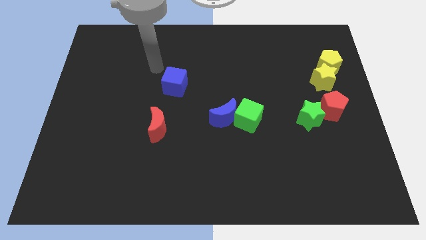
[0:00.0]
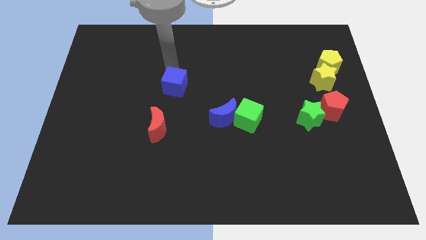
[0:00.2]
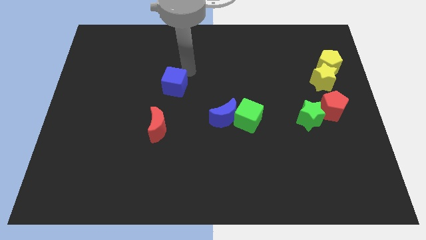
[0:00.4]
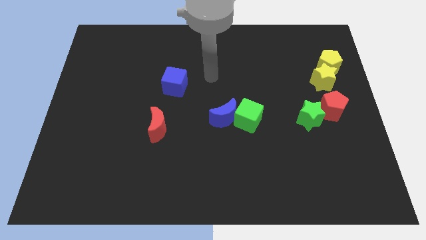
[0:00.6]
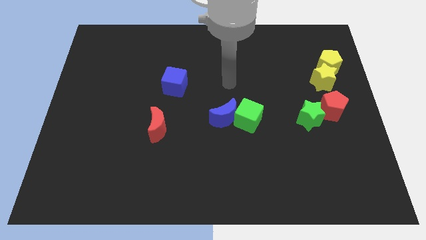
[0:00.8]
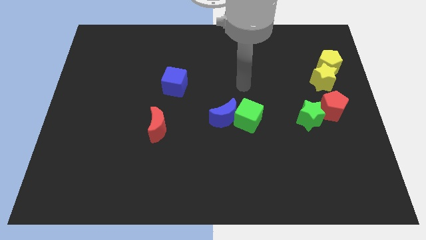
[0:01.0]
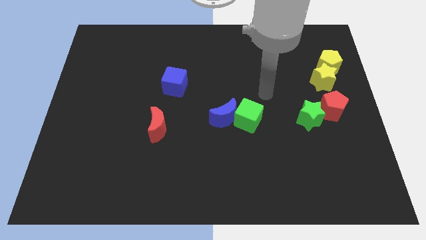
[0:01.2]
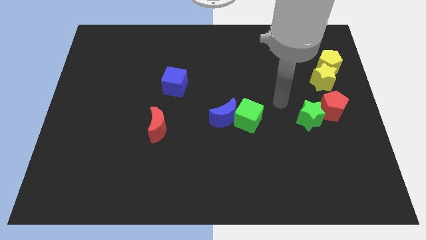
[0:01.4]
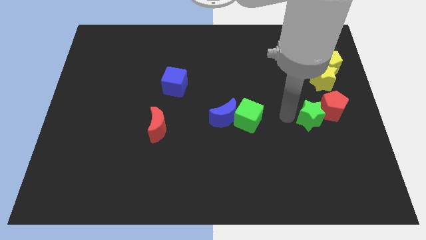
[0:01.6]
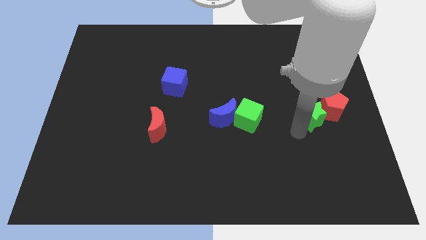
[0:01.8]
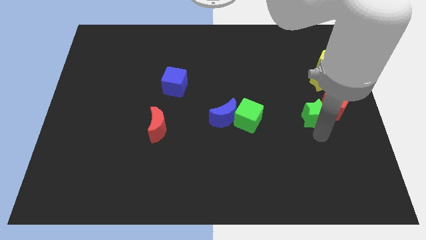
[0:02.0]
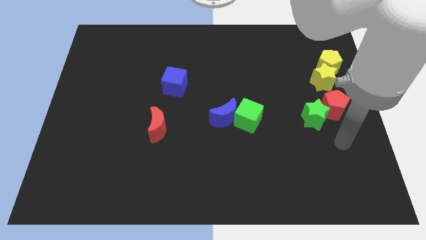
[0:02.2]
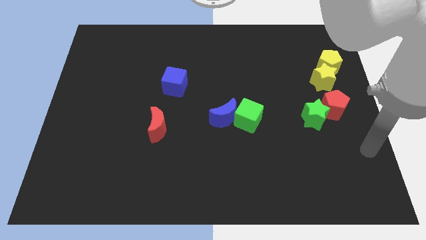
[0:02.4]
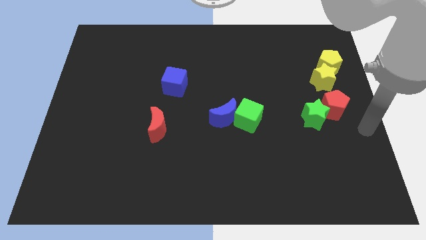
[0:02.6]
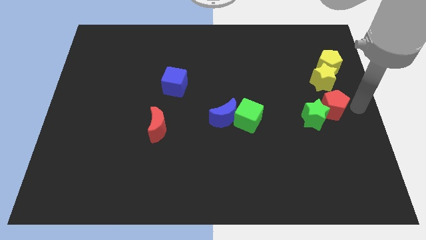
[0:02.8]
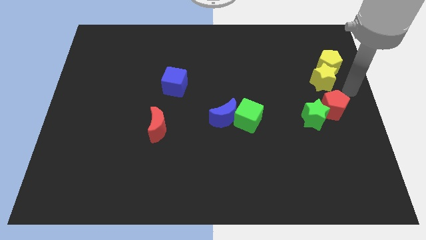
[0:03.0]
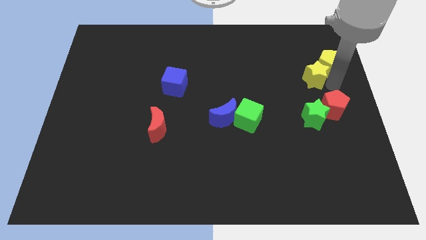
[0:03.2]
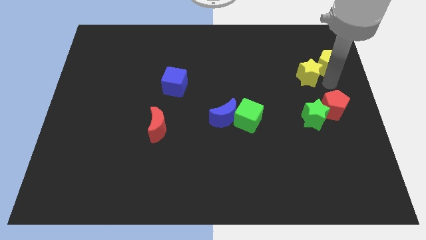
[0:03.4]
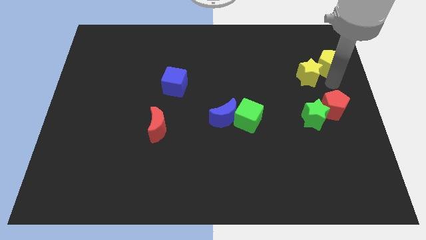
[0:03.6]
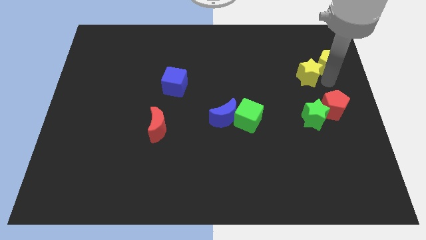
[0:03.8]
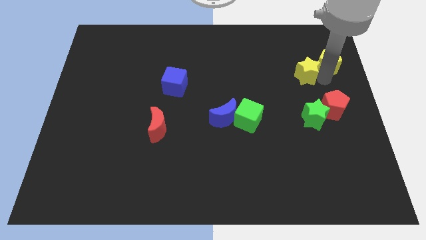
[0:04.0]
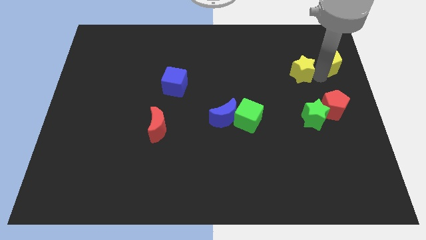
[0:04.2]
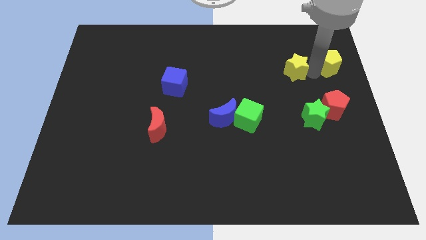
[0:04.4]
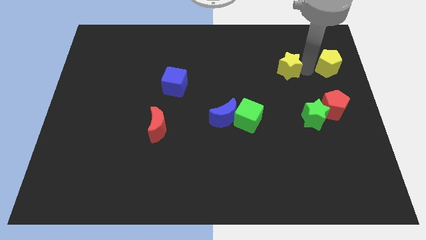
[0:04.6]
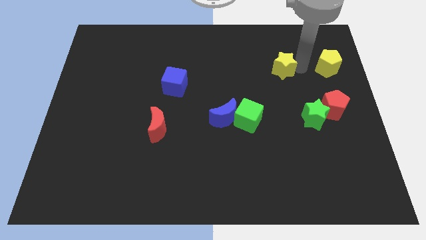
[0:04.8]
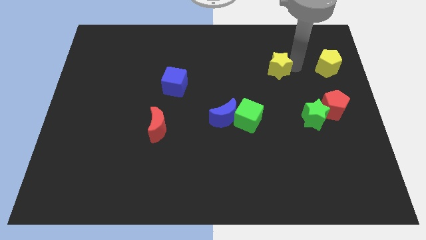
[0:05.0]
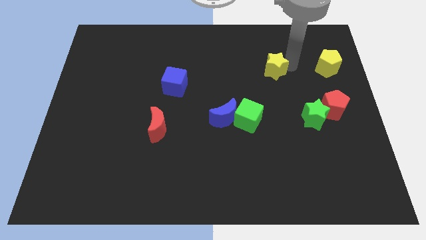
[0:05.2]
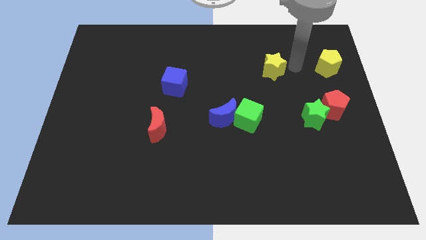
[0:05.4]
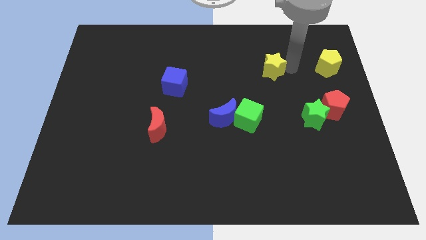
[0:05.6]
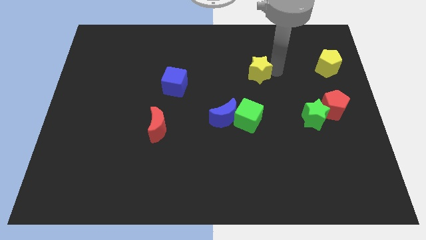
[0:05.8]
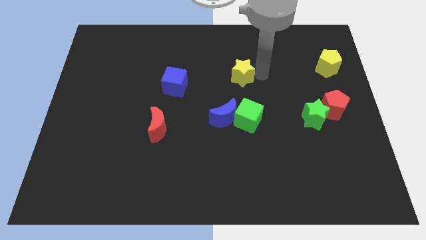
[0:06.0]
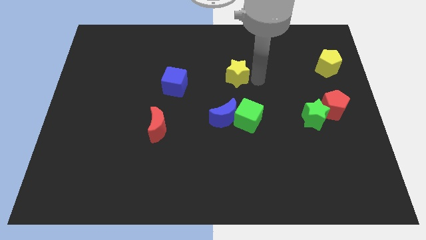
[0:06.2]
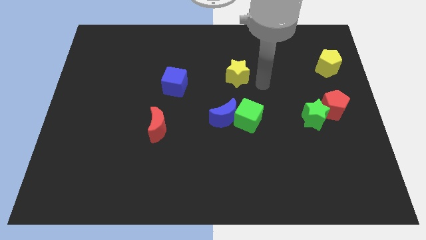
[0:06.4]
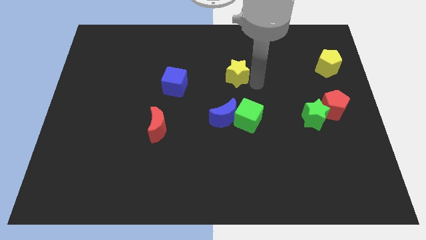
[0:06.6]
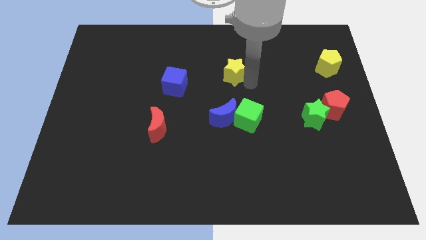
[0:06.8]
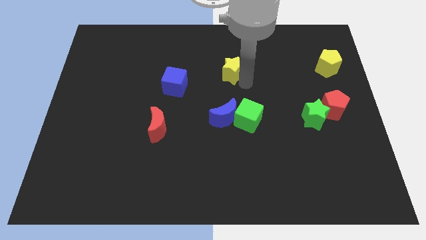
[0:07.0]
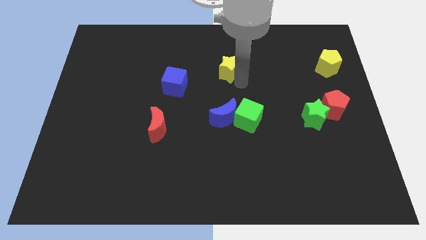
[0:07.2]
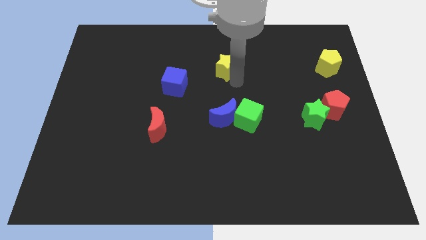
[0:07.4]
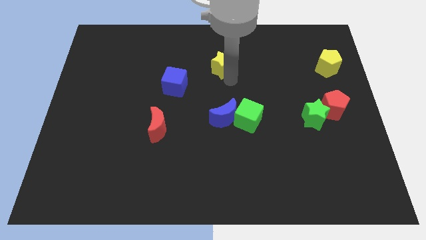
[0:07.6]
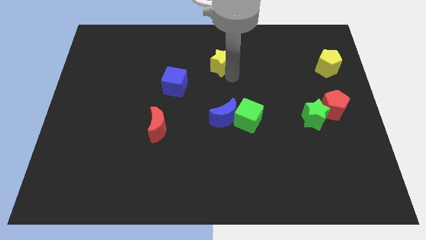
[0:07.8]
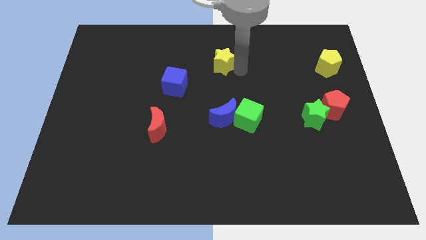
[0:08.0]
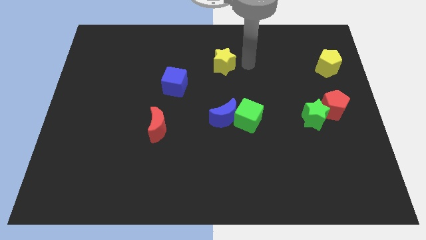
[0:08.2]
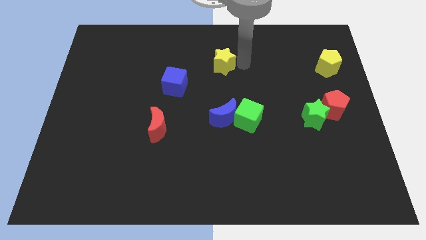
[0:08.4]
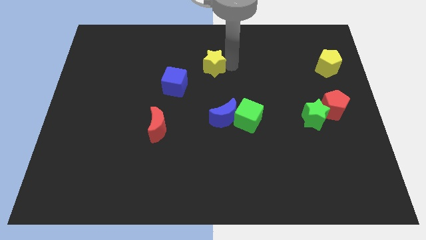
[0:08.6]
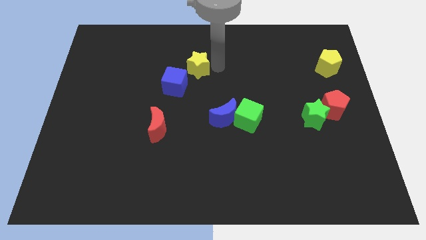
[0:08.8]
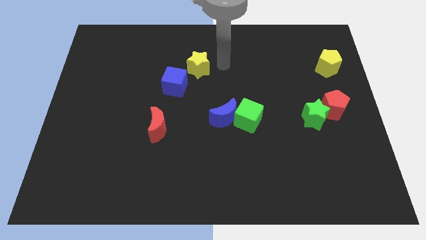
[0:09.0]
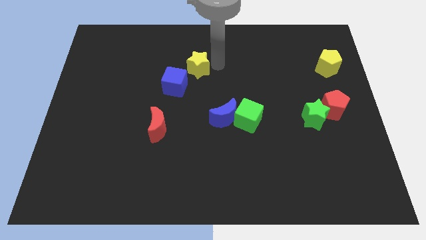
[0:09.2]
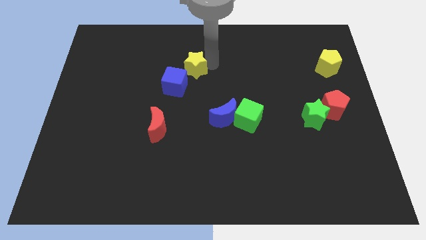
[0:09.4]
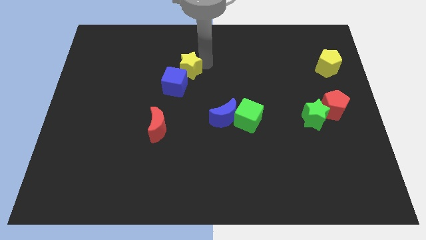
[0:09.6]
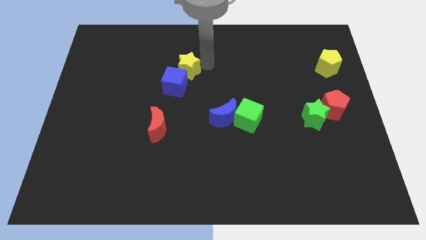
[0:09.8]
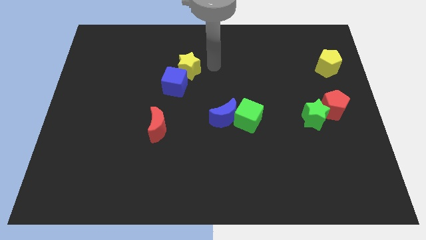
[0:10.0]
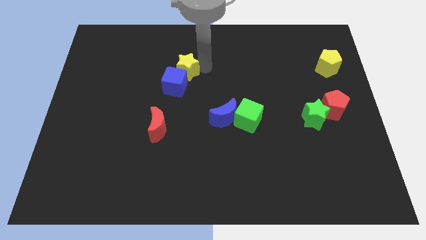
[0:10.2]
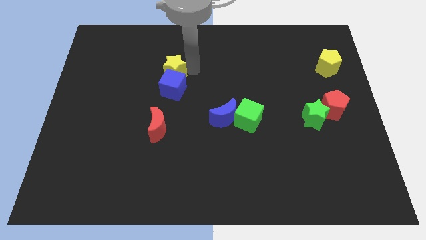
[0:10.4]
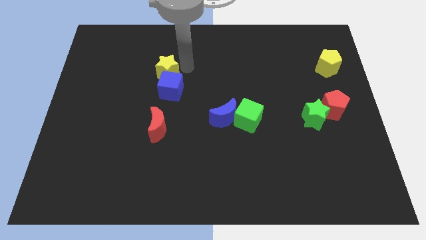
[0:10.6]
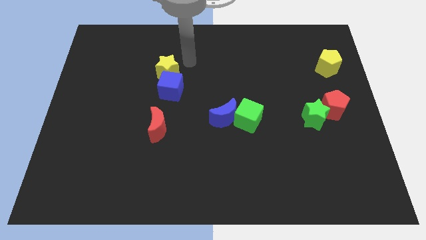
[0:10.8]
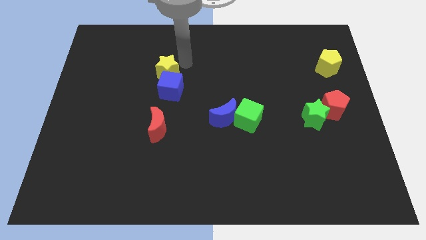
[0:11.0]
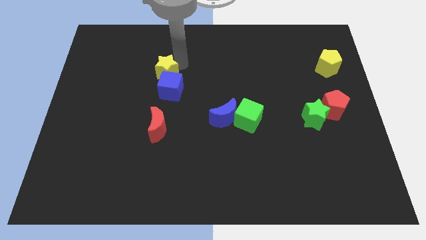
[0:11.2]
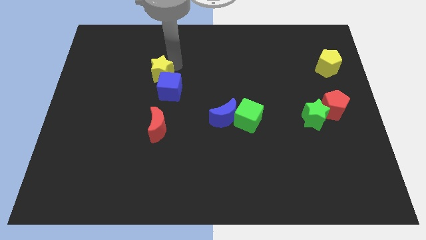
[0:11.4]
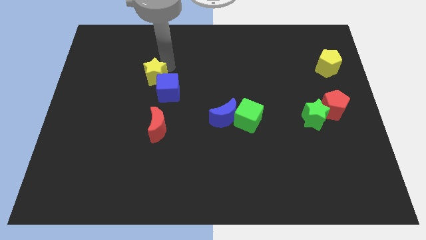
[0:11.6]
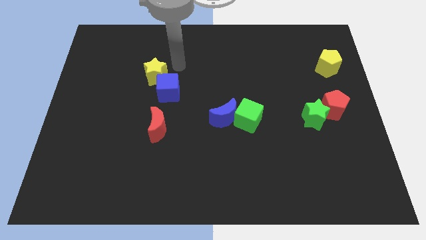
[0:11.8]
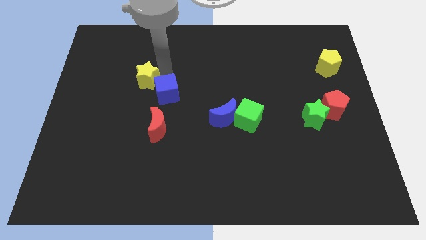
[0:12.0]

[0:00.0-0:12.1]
slide the yellow star just left of the blue cube

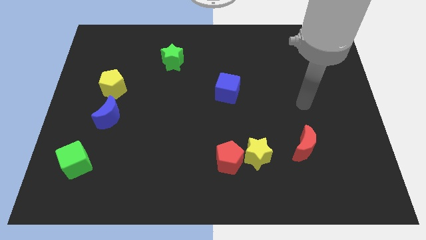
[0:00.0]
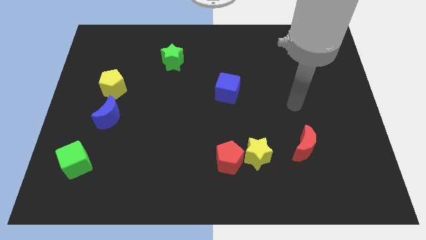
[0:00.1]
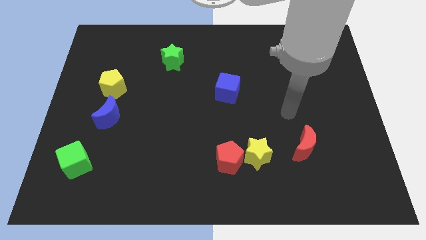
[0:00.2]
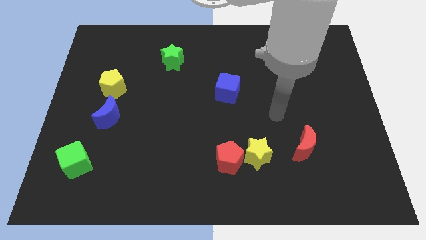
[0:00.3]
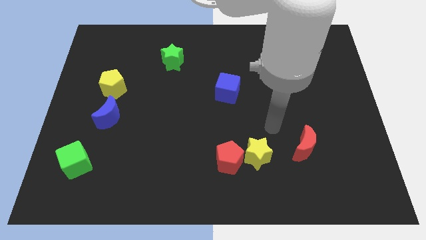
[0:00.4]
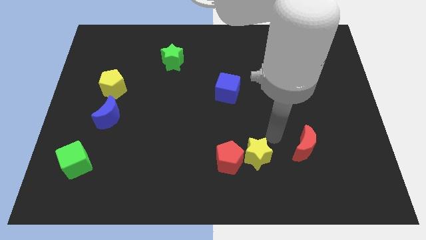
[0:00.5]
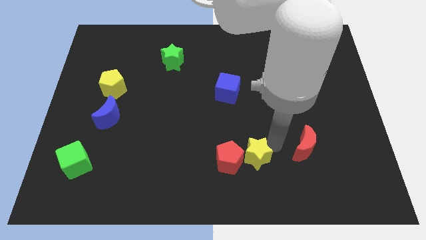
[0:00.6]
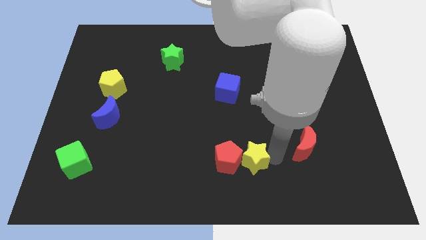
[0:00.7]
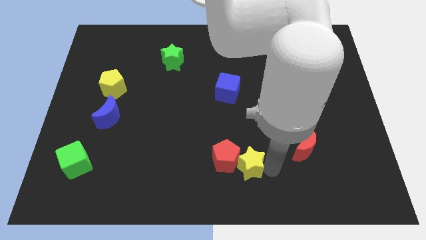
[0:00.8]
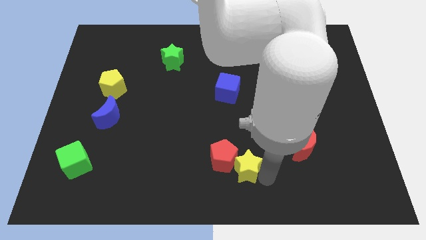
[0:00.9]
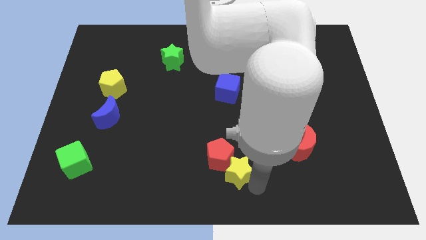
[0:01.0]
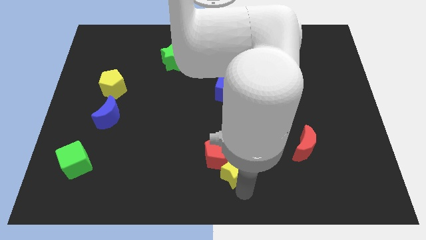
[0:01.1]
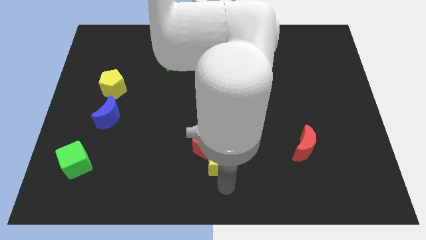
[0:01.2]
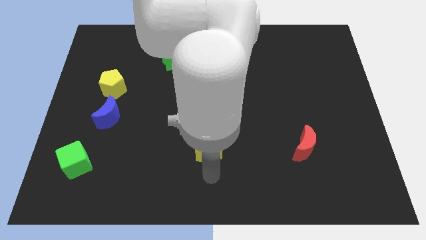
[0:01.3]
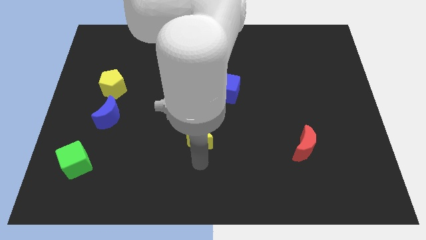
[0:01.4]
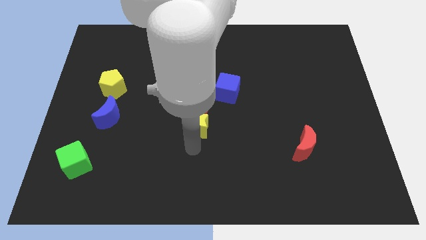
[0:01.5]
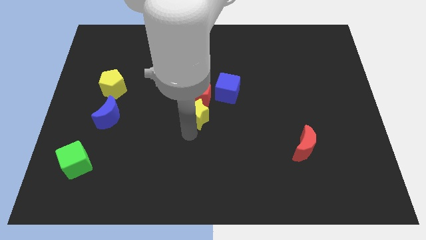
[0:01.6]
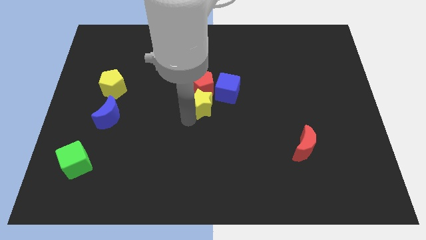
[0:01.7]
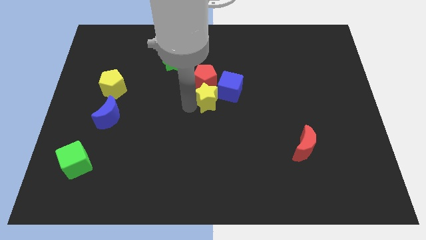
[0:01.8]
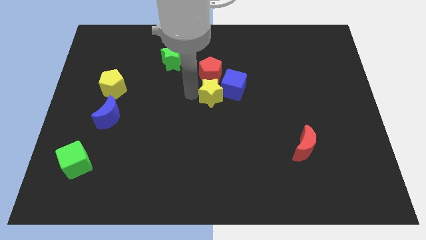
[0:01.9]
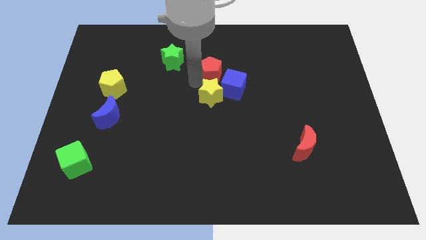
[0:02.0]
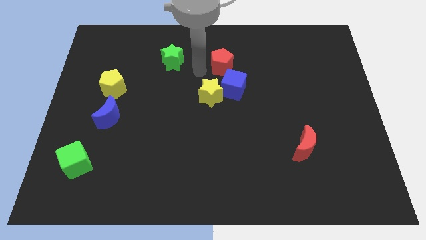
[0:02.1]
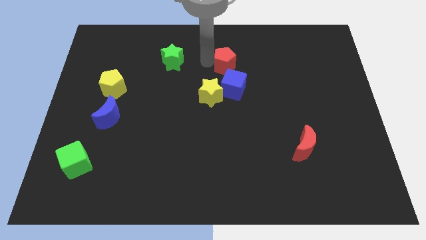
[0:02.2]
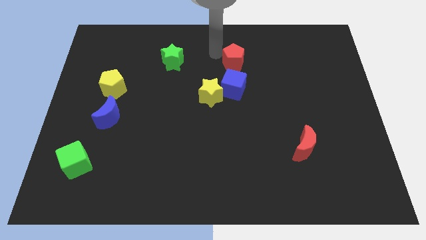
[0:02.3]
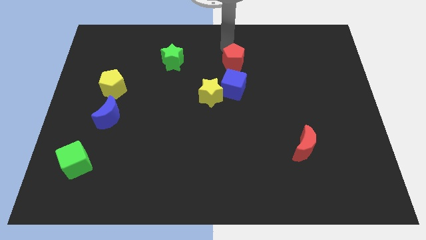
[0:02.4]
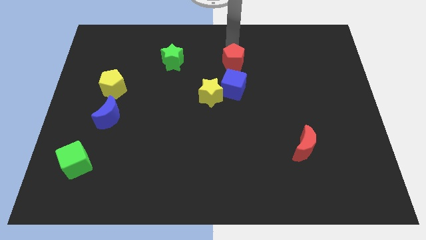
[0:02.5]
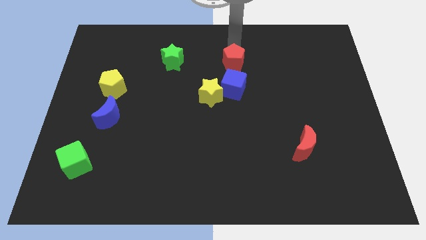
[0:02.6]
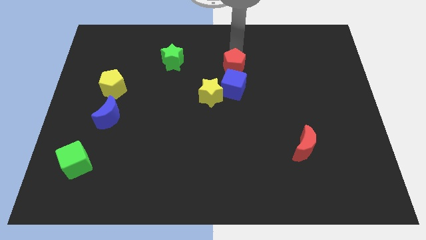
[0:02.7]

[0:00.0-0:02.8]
push the red pentagon diagonally up and to the right of the blue cube
